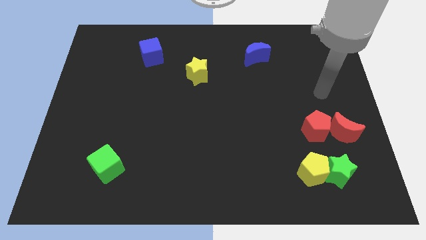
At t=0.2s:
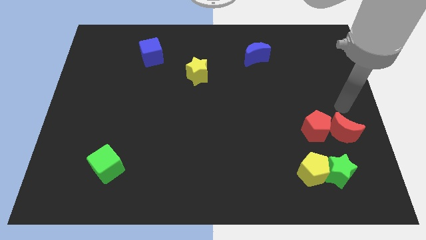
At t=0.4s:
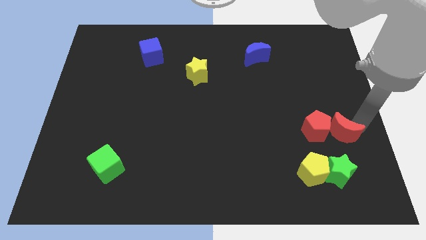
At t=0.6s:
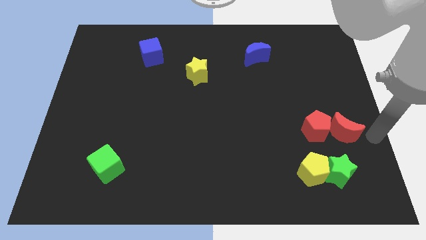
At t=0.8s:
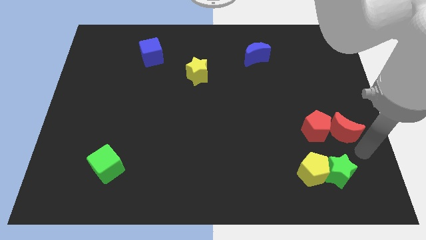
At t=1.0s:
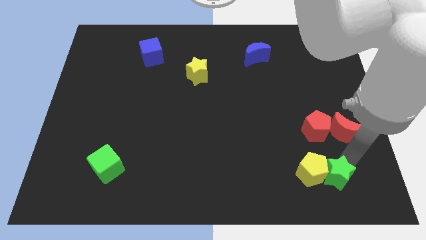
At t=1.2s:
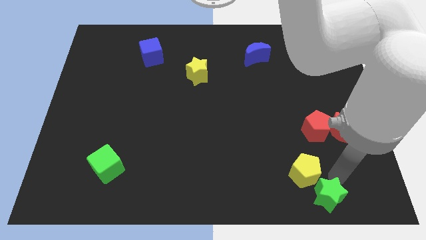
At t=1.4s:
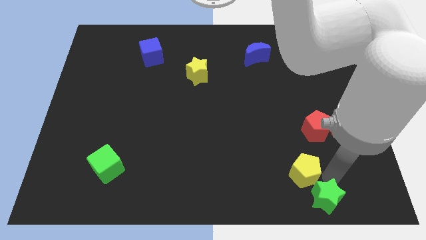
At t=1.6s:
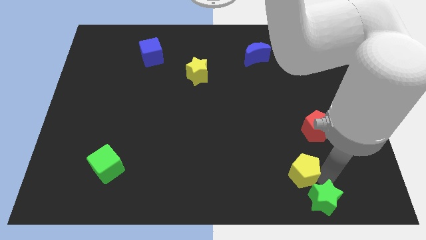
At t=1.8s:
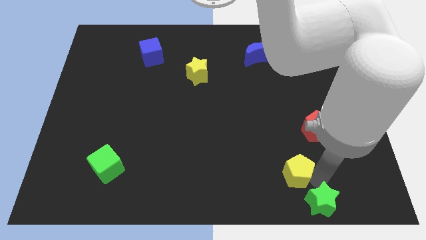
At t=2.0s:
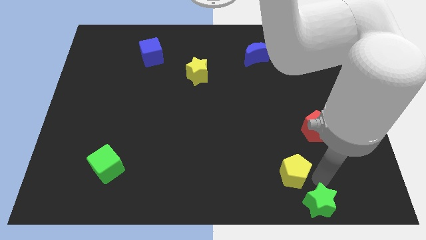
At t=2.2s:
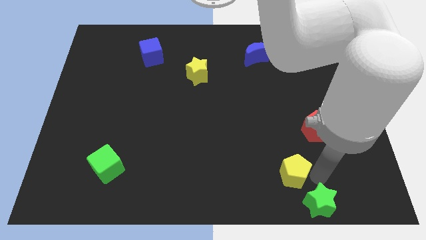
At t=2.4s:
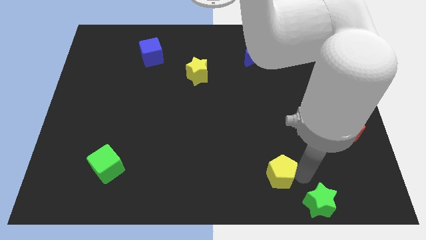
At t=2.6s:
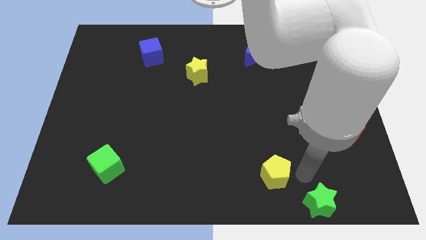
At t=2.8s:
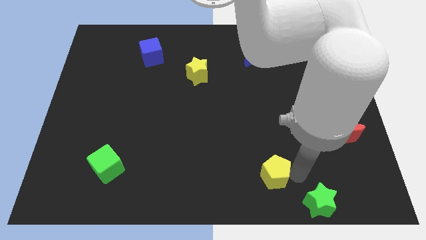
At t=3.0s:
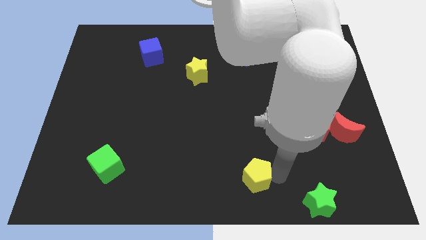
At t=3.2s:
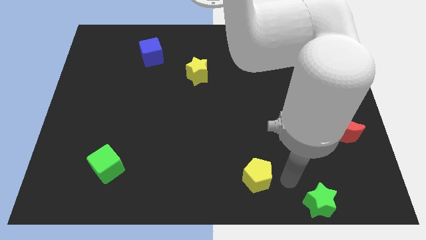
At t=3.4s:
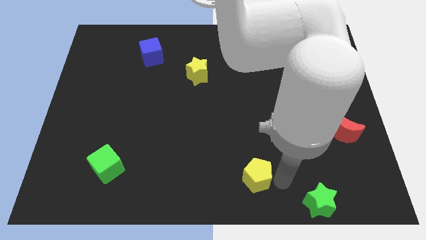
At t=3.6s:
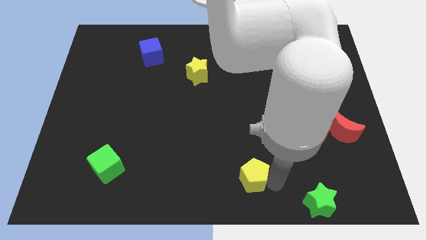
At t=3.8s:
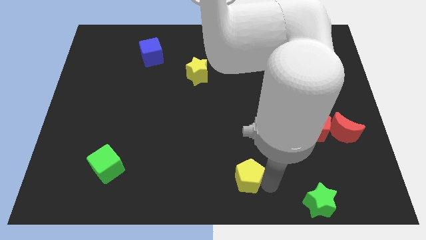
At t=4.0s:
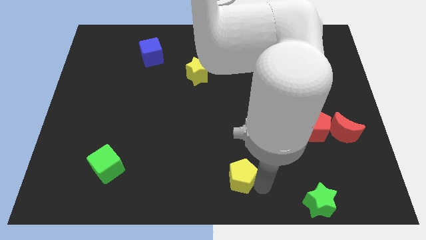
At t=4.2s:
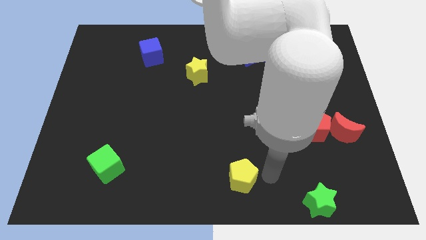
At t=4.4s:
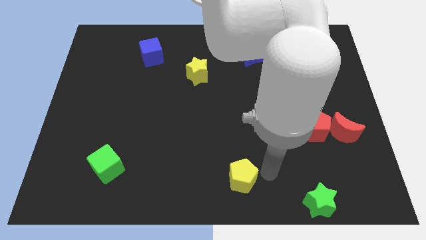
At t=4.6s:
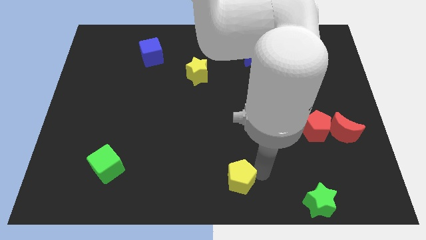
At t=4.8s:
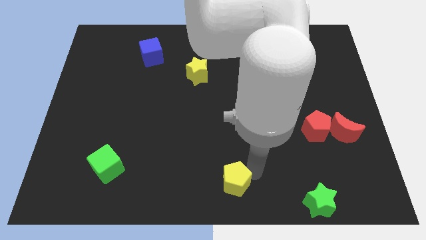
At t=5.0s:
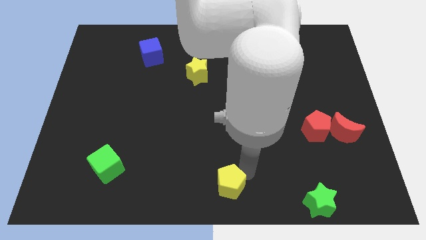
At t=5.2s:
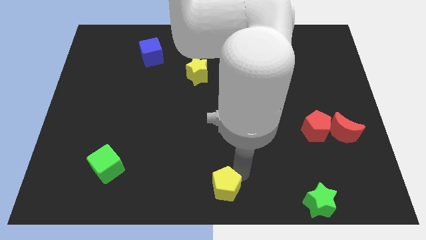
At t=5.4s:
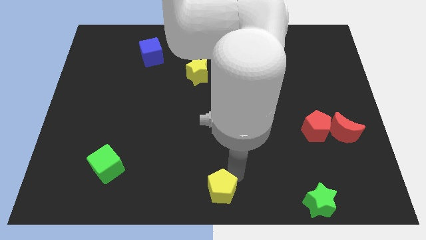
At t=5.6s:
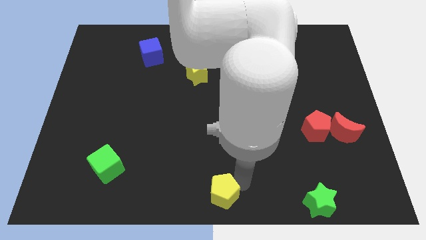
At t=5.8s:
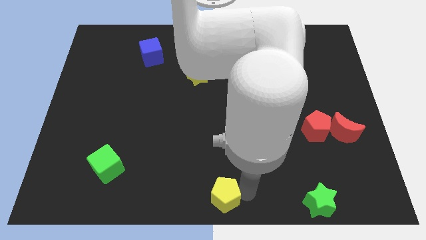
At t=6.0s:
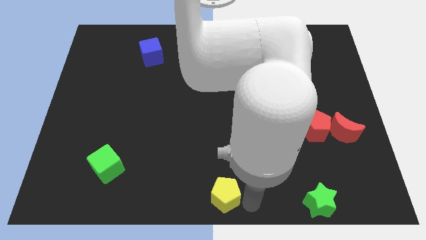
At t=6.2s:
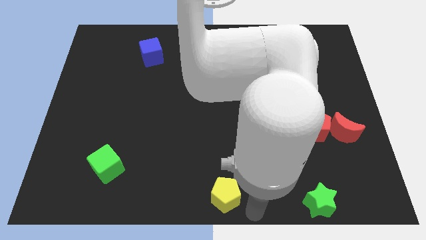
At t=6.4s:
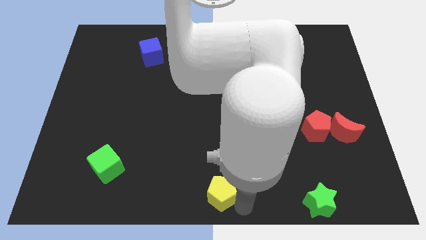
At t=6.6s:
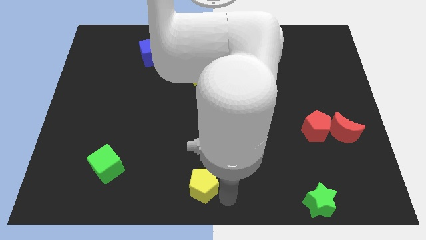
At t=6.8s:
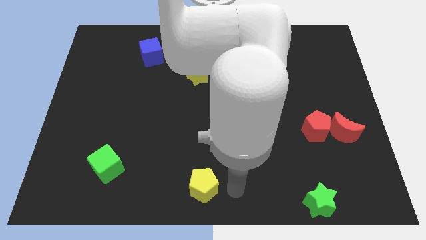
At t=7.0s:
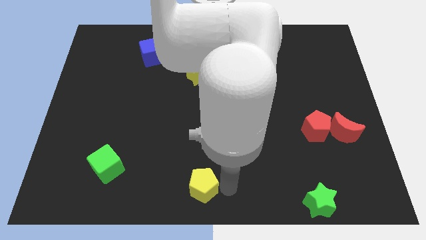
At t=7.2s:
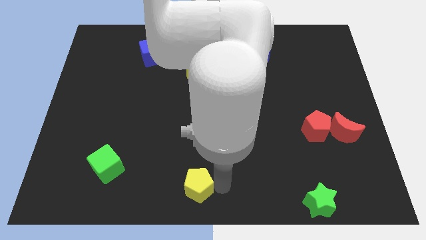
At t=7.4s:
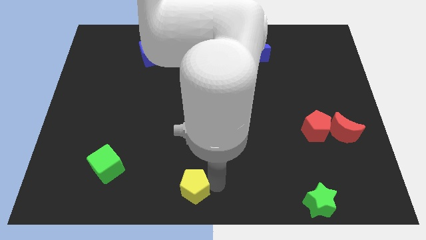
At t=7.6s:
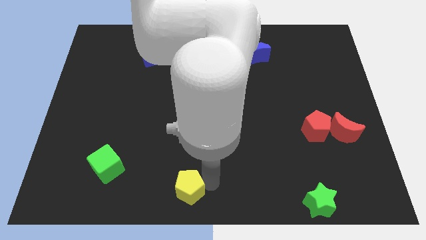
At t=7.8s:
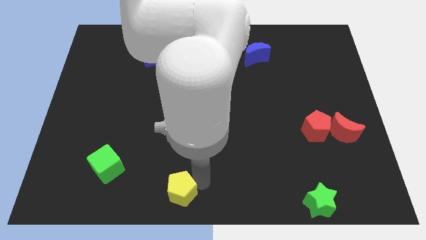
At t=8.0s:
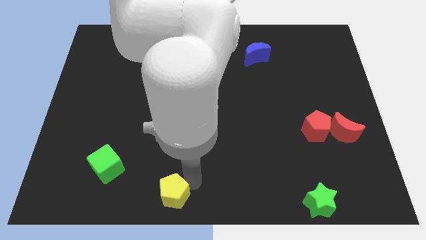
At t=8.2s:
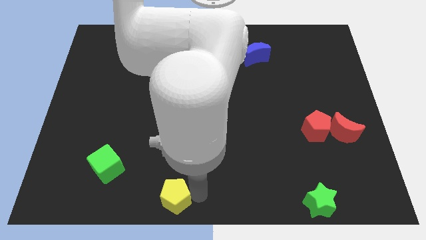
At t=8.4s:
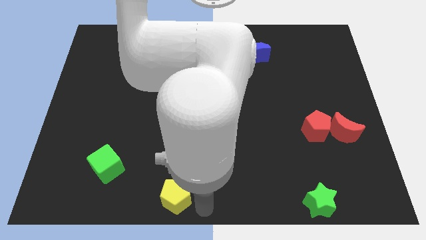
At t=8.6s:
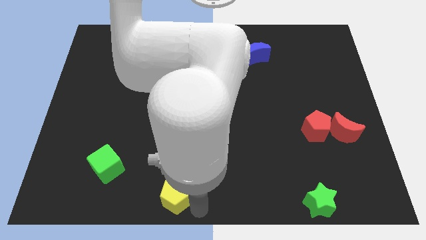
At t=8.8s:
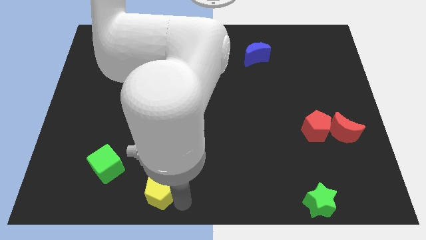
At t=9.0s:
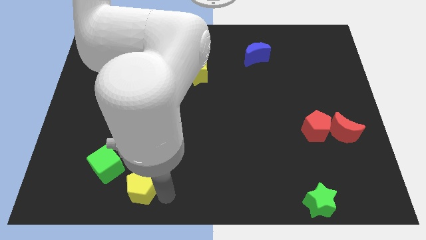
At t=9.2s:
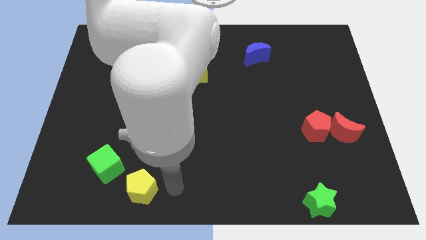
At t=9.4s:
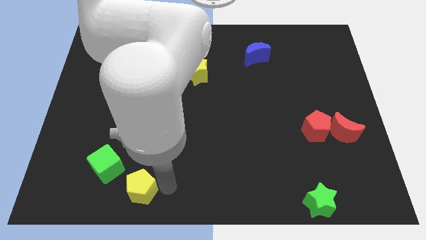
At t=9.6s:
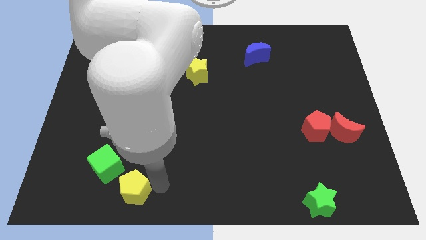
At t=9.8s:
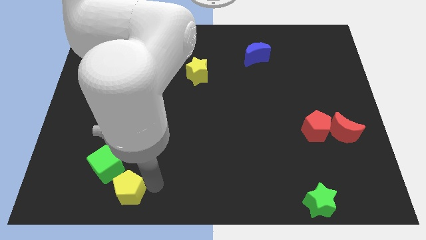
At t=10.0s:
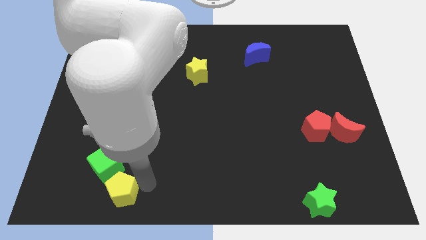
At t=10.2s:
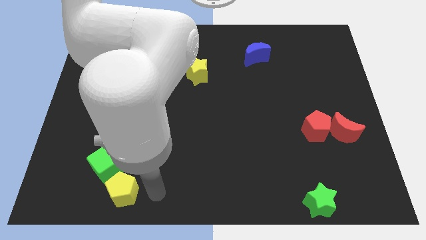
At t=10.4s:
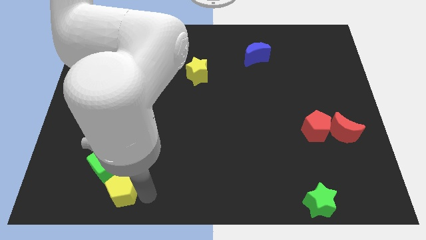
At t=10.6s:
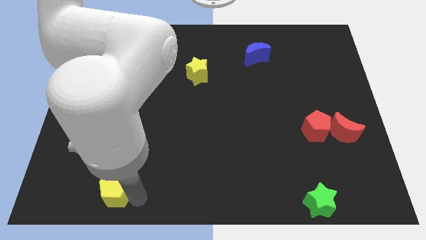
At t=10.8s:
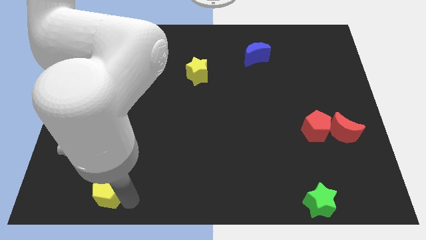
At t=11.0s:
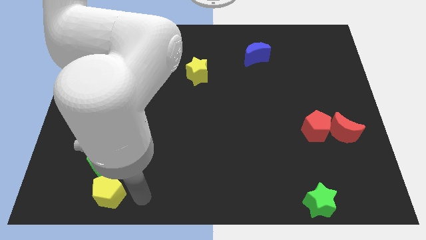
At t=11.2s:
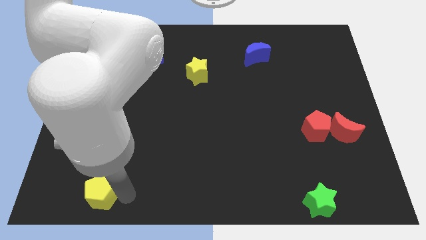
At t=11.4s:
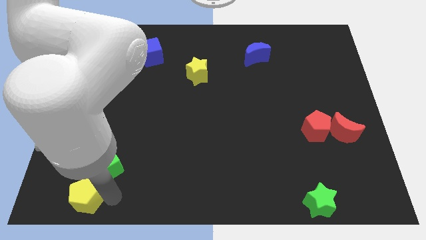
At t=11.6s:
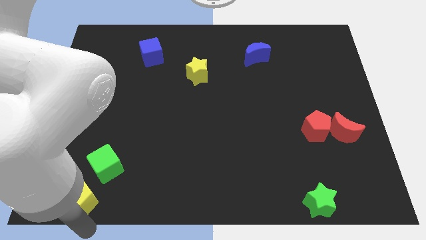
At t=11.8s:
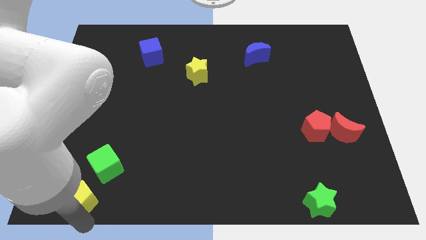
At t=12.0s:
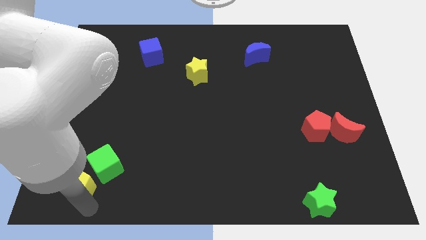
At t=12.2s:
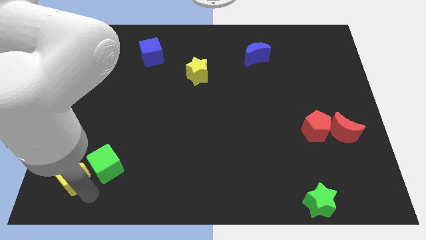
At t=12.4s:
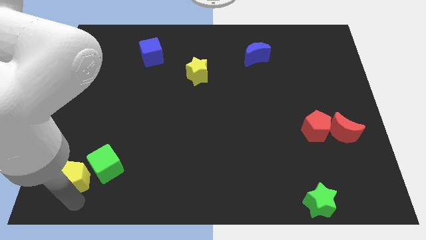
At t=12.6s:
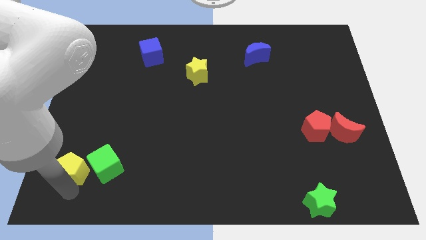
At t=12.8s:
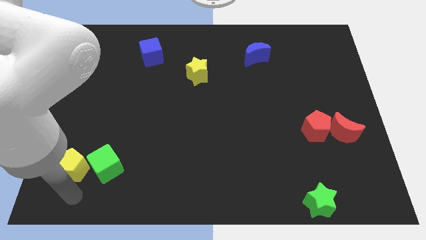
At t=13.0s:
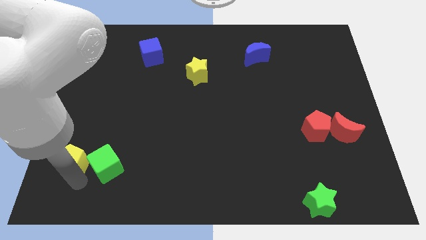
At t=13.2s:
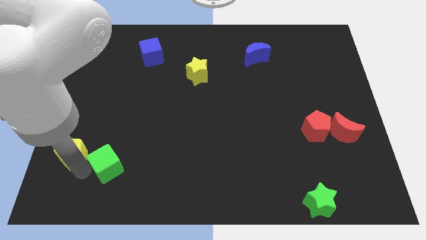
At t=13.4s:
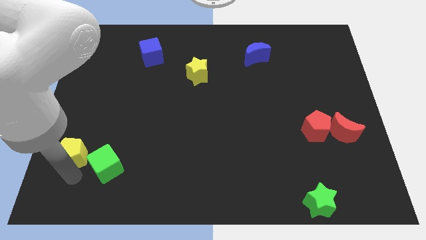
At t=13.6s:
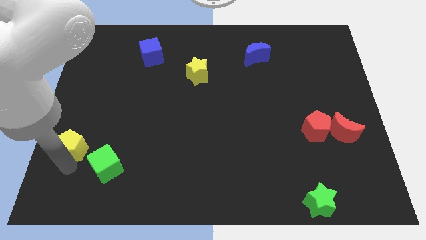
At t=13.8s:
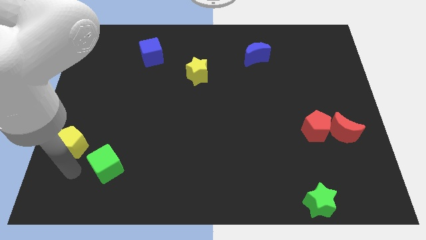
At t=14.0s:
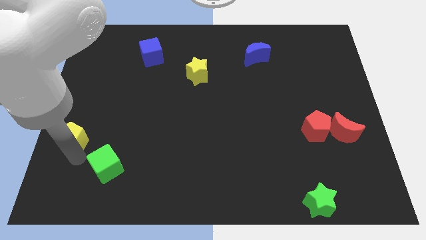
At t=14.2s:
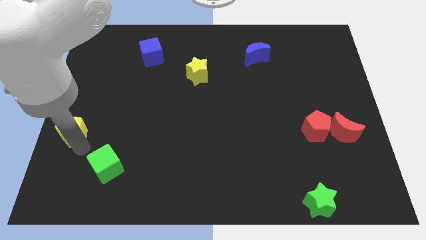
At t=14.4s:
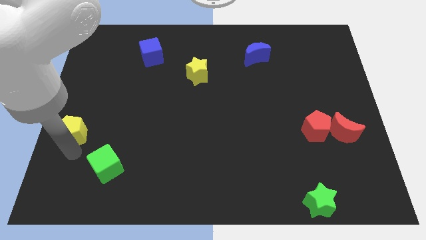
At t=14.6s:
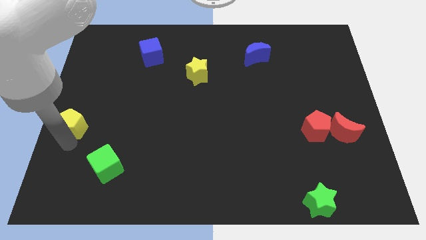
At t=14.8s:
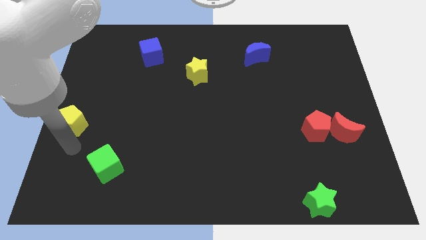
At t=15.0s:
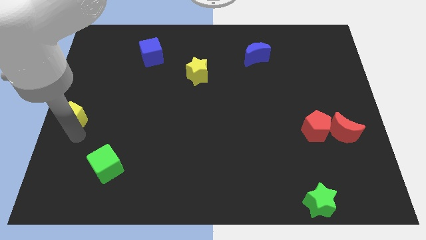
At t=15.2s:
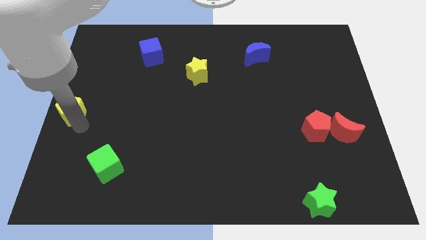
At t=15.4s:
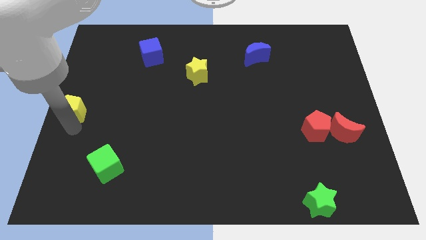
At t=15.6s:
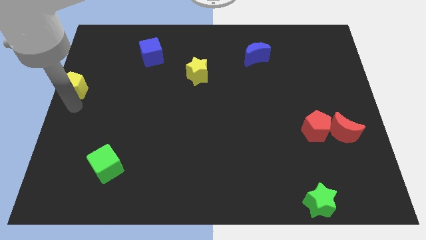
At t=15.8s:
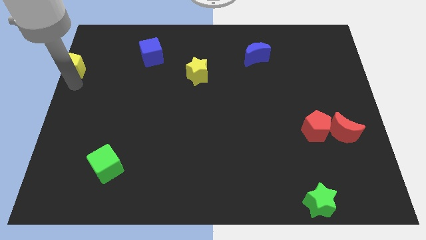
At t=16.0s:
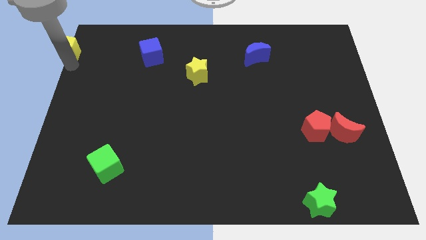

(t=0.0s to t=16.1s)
move the yellow pentagon to the top left of the board
